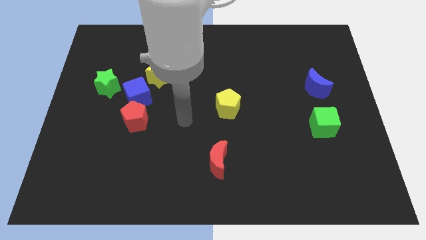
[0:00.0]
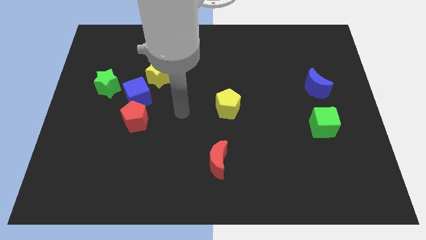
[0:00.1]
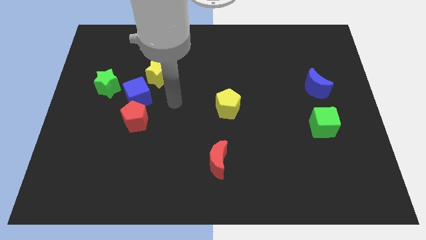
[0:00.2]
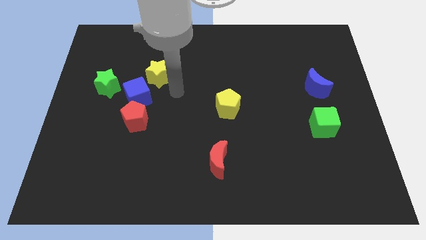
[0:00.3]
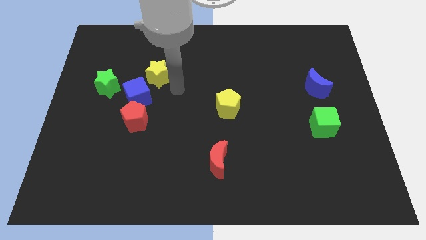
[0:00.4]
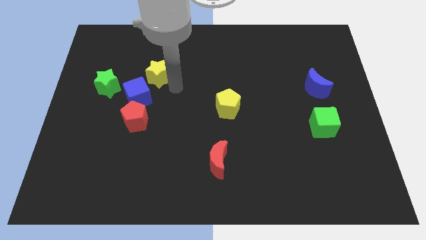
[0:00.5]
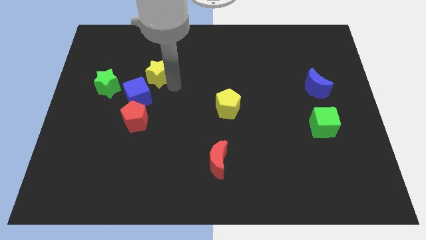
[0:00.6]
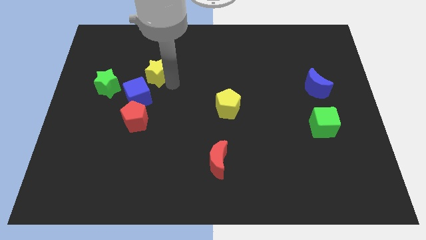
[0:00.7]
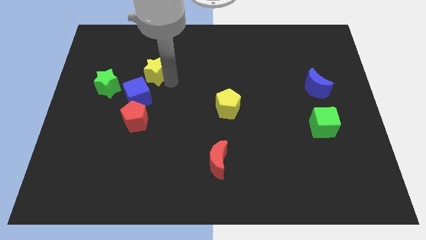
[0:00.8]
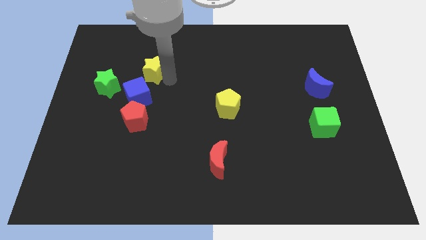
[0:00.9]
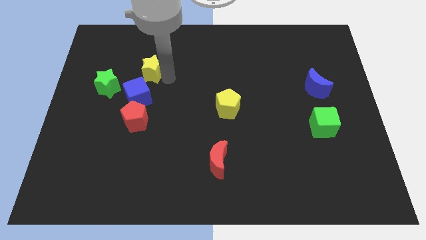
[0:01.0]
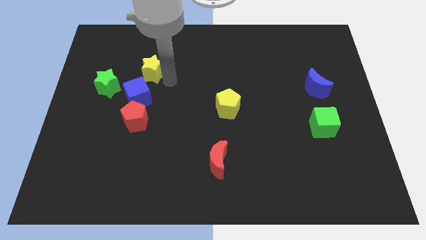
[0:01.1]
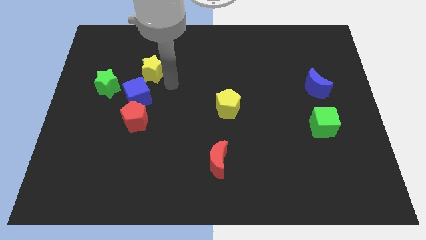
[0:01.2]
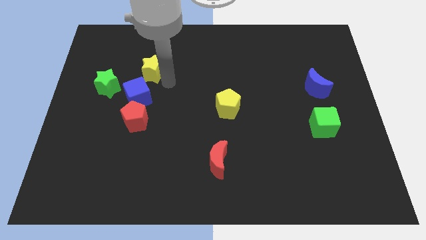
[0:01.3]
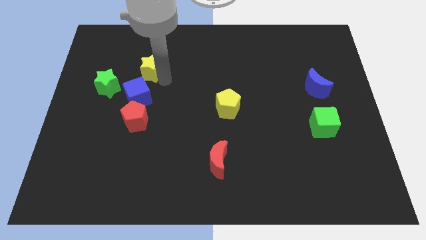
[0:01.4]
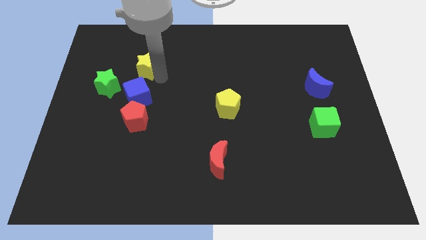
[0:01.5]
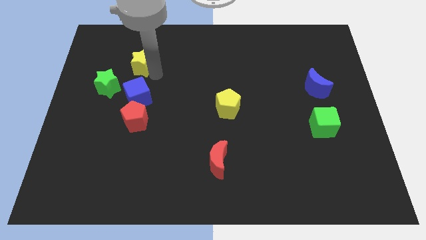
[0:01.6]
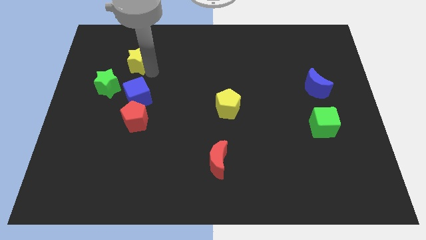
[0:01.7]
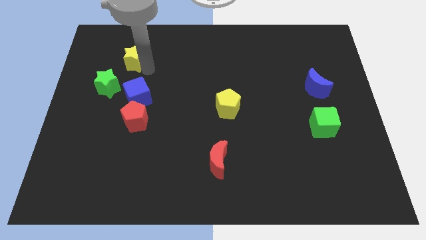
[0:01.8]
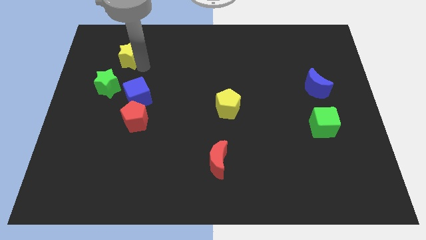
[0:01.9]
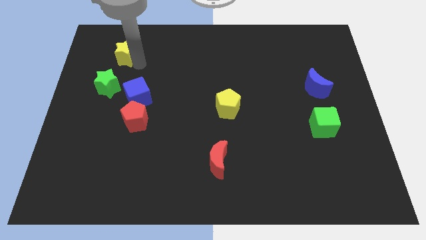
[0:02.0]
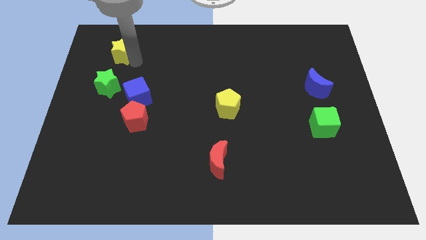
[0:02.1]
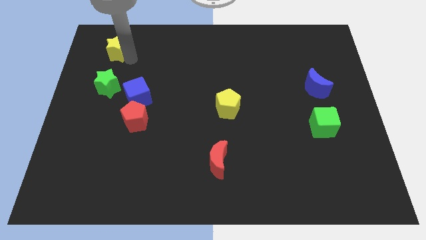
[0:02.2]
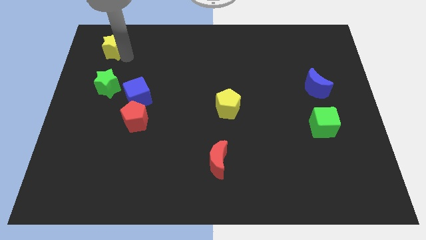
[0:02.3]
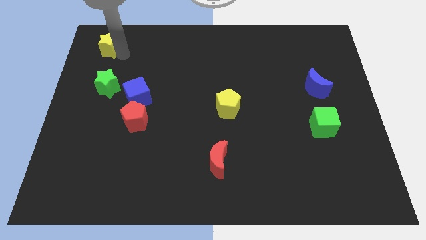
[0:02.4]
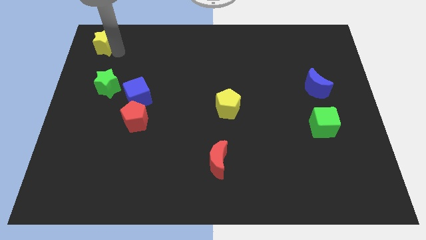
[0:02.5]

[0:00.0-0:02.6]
slide the yellow star to the upper left corner

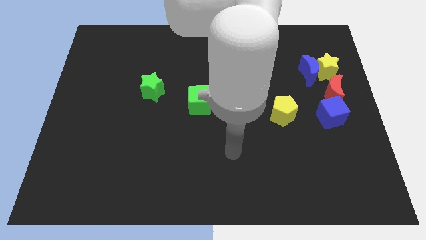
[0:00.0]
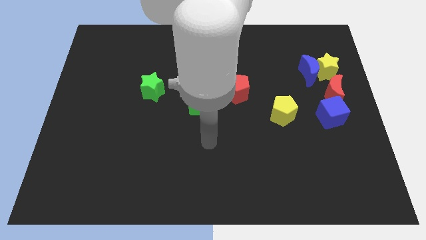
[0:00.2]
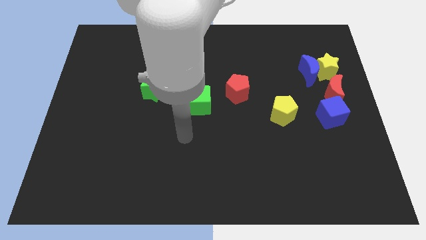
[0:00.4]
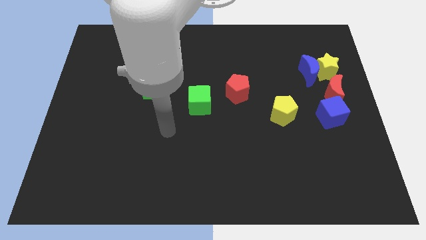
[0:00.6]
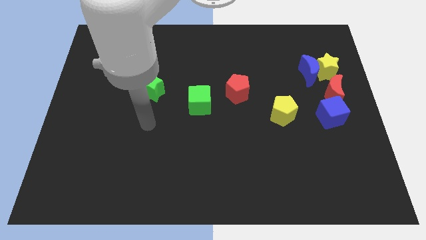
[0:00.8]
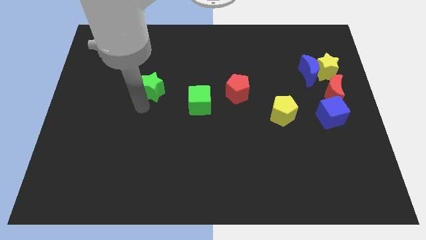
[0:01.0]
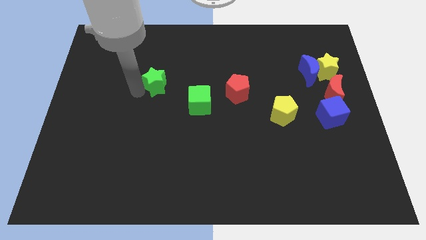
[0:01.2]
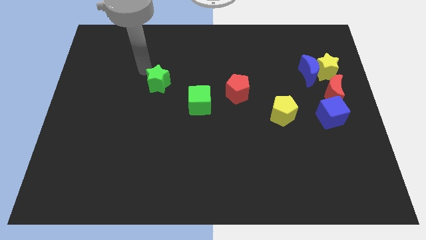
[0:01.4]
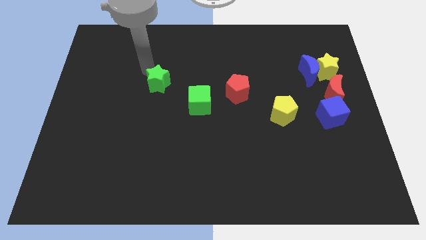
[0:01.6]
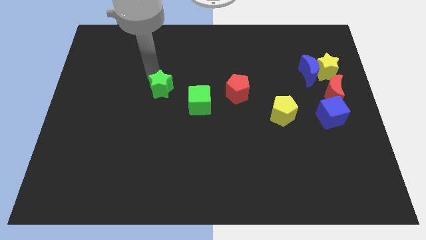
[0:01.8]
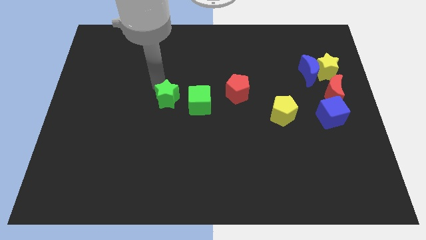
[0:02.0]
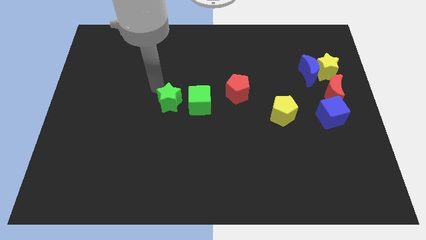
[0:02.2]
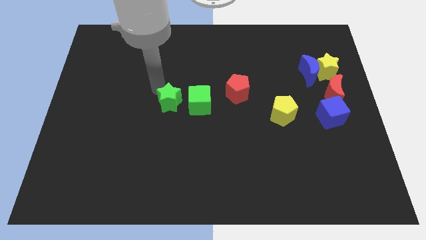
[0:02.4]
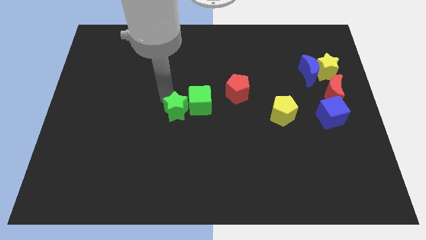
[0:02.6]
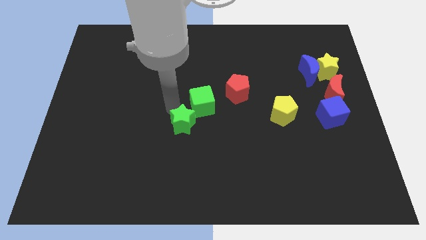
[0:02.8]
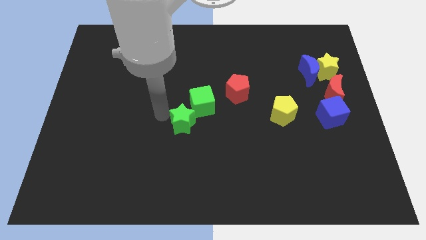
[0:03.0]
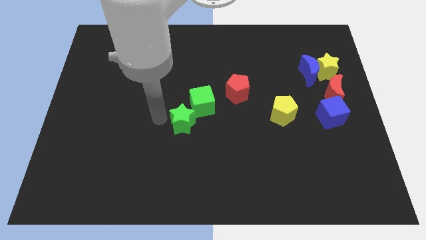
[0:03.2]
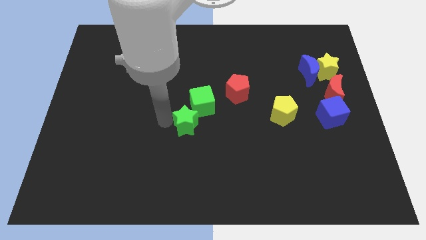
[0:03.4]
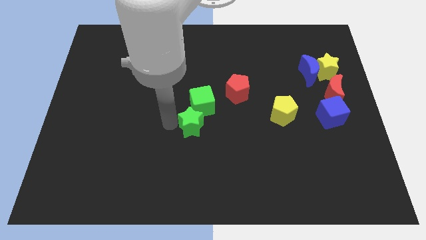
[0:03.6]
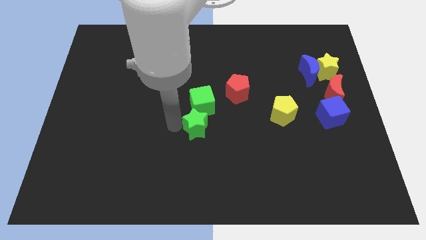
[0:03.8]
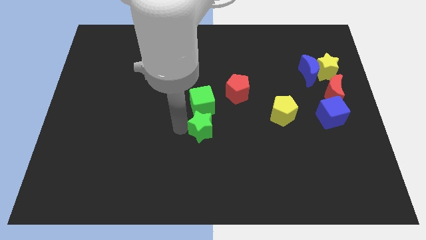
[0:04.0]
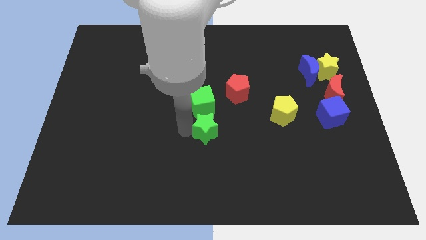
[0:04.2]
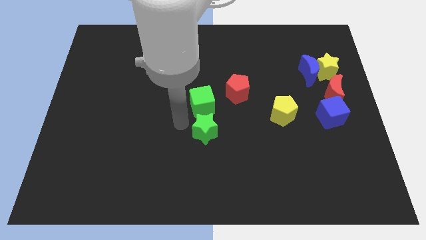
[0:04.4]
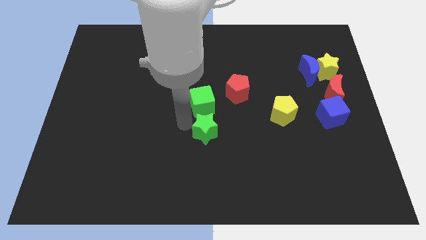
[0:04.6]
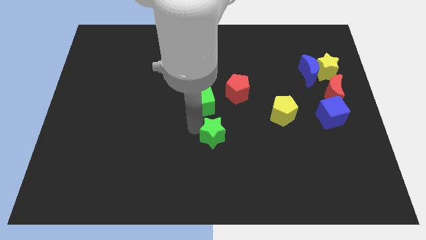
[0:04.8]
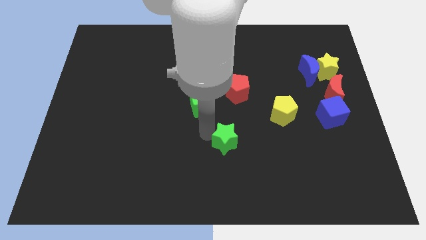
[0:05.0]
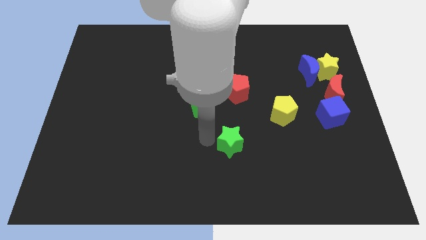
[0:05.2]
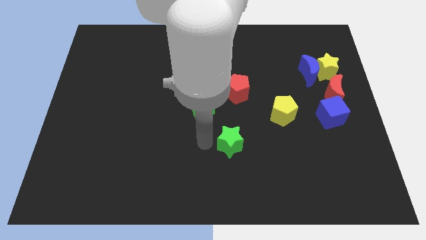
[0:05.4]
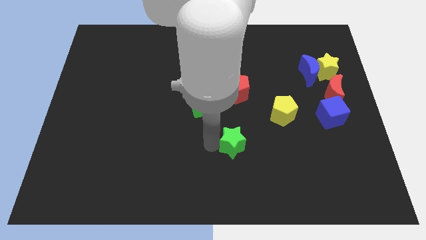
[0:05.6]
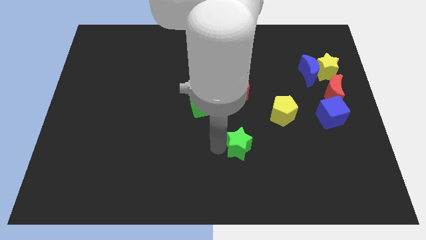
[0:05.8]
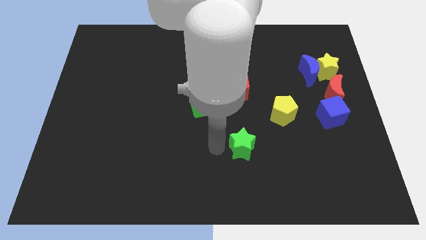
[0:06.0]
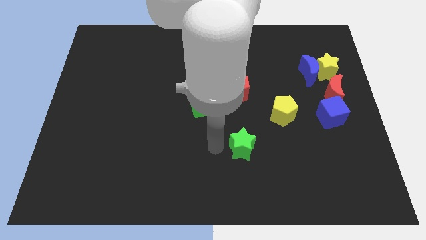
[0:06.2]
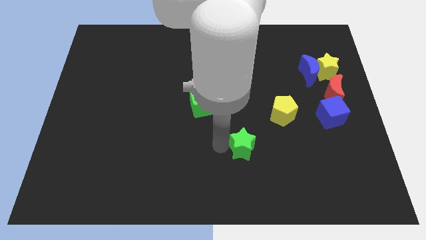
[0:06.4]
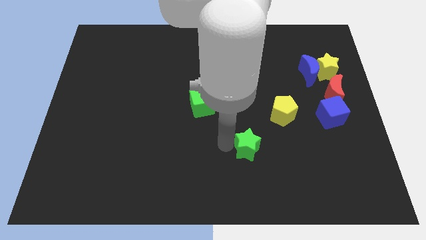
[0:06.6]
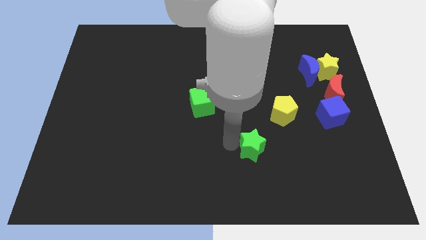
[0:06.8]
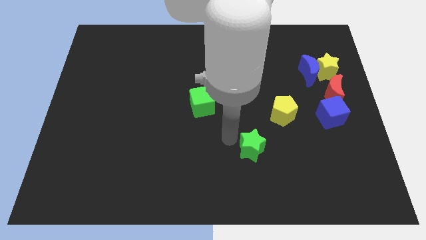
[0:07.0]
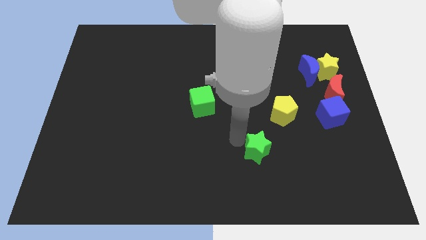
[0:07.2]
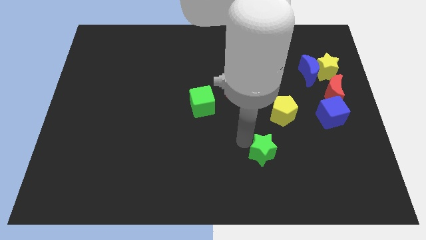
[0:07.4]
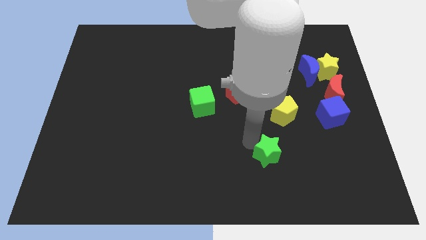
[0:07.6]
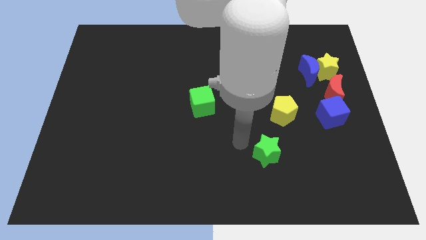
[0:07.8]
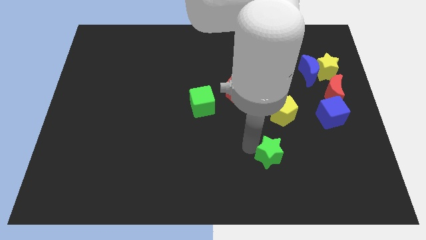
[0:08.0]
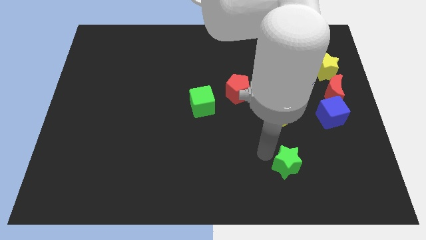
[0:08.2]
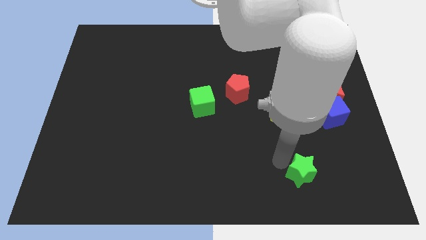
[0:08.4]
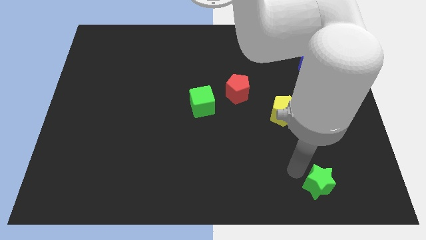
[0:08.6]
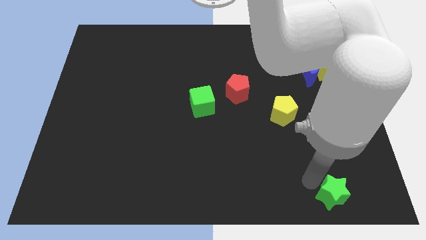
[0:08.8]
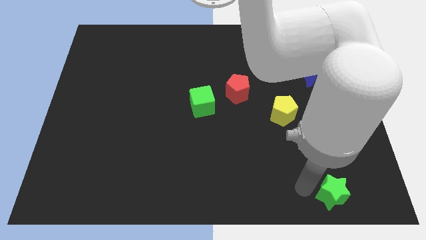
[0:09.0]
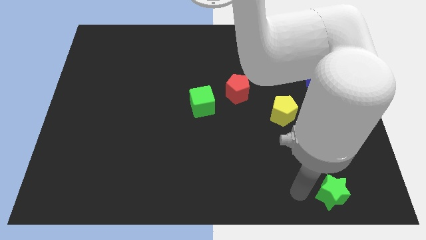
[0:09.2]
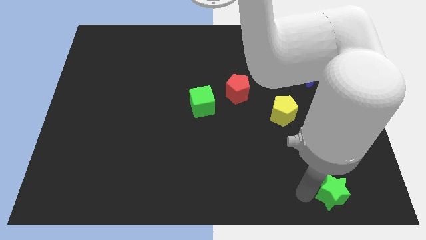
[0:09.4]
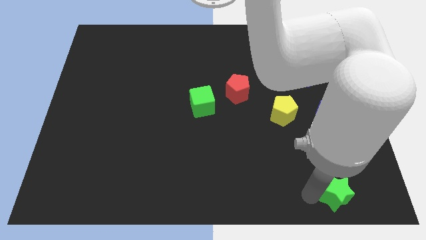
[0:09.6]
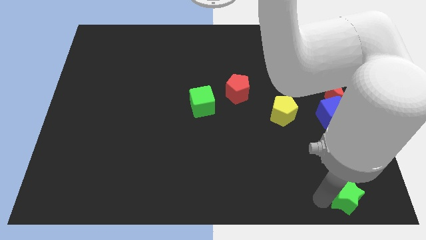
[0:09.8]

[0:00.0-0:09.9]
put the green star to the bottom right corner

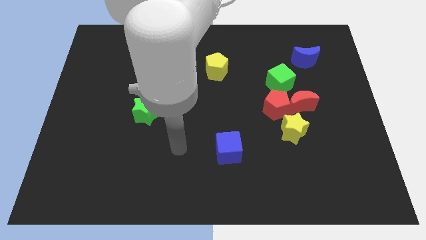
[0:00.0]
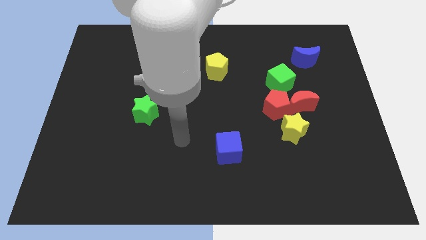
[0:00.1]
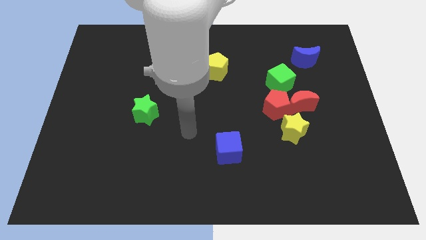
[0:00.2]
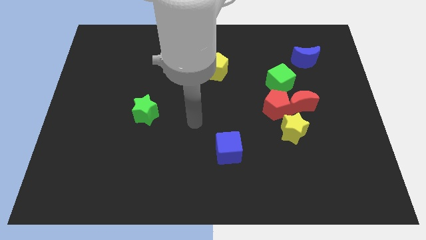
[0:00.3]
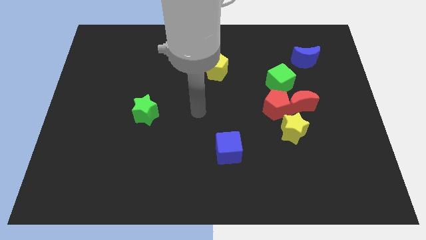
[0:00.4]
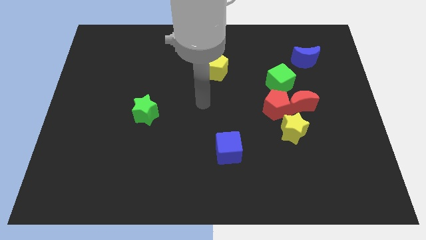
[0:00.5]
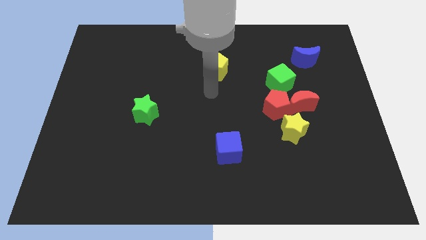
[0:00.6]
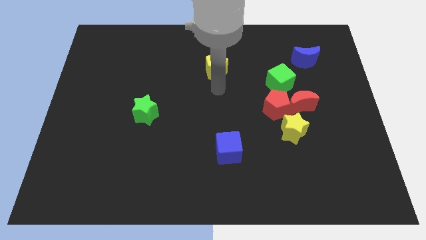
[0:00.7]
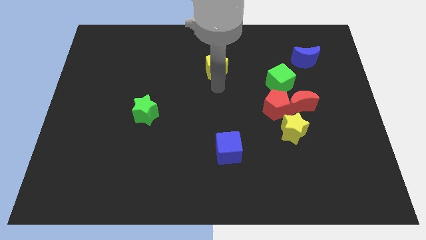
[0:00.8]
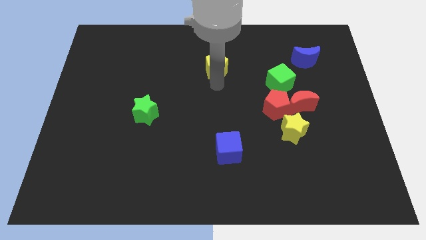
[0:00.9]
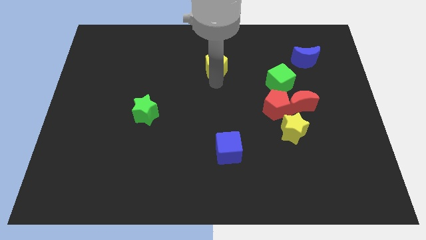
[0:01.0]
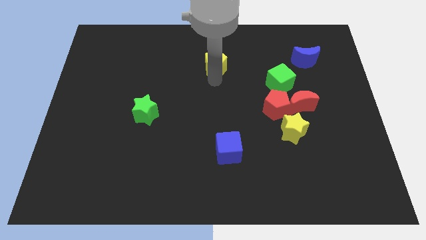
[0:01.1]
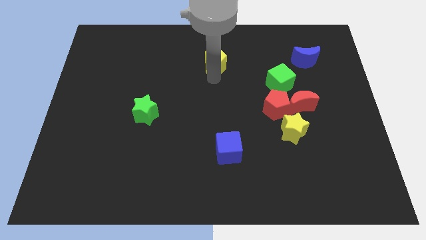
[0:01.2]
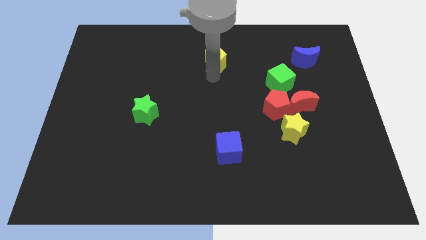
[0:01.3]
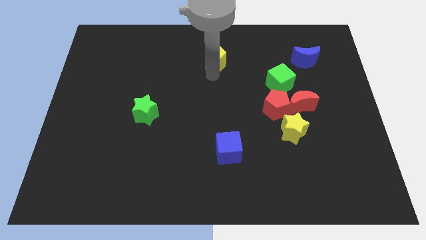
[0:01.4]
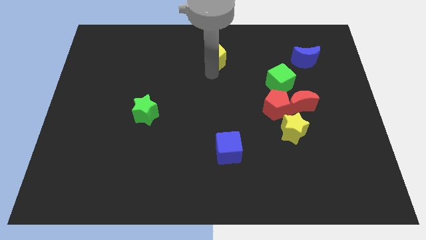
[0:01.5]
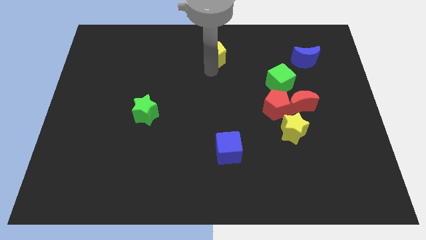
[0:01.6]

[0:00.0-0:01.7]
push the yellow pentagon to the towards your base
